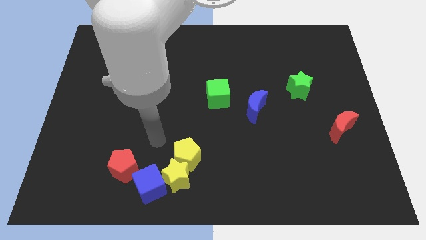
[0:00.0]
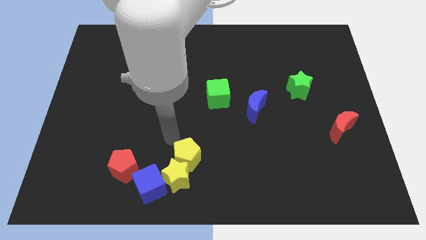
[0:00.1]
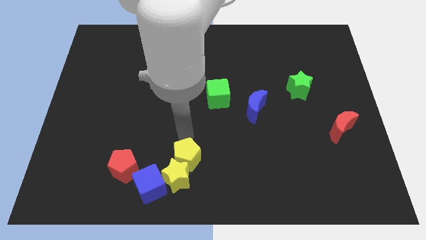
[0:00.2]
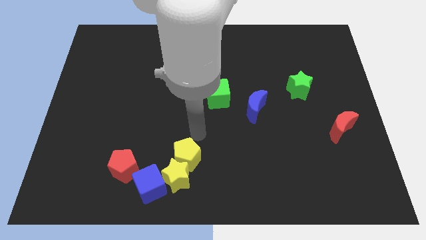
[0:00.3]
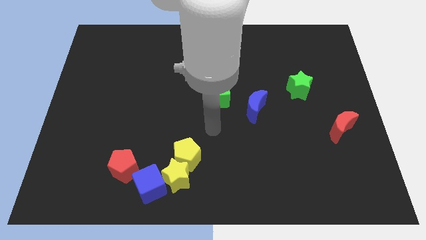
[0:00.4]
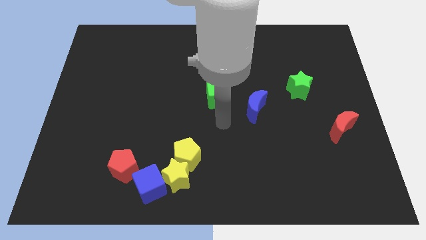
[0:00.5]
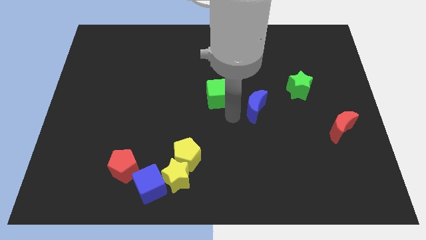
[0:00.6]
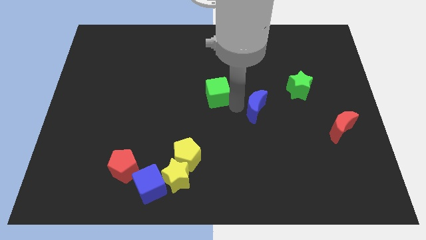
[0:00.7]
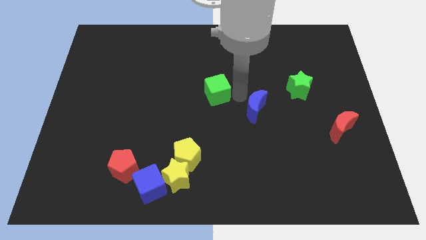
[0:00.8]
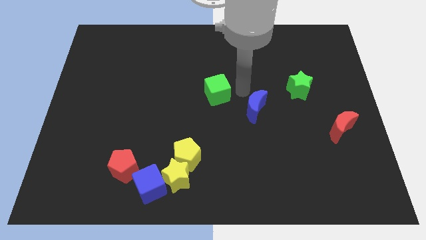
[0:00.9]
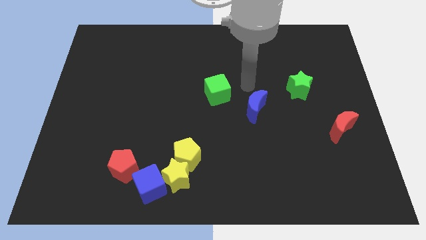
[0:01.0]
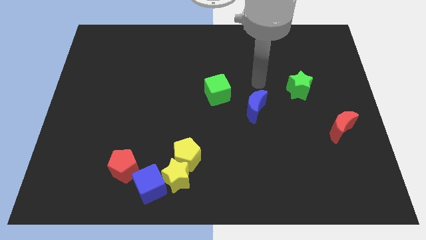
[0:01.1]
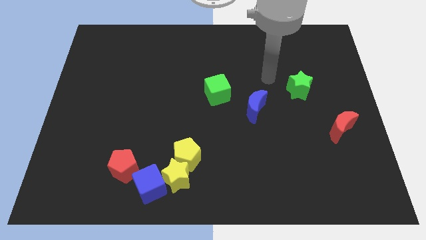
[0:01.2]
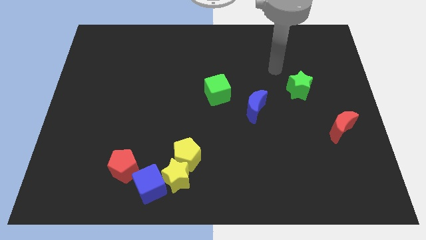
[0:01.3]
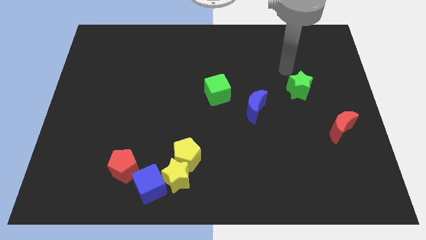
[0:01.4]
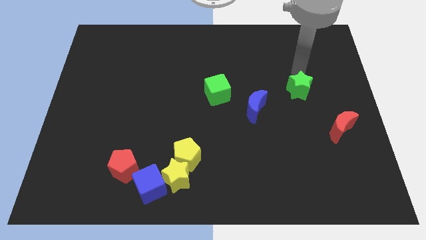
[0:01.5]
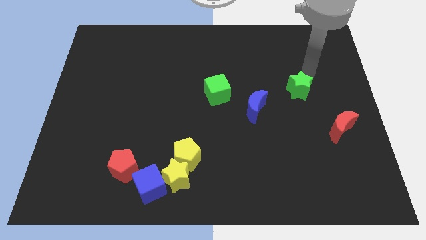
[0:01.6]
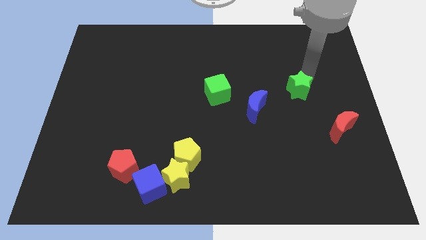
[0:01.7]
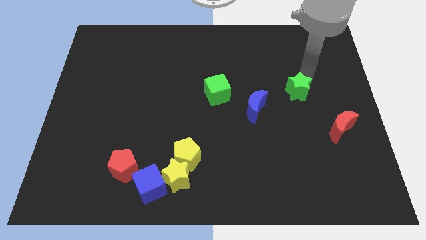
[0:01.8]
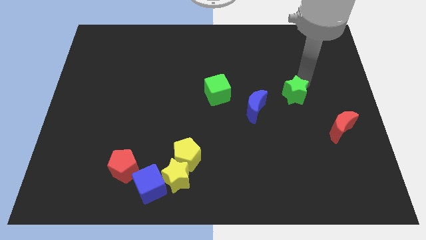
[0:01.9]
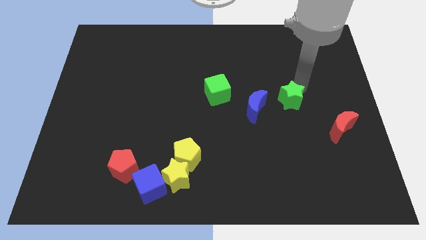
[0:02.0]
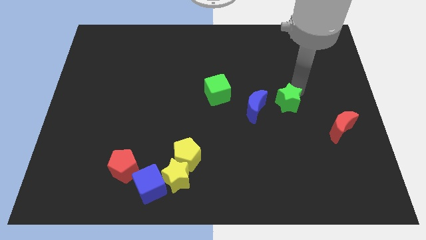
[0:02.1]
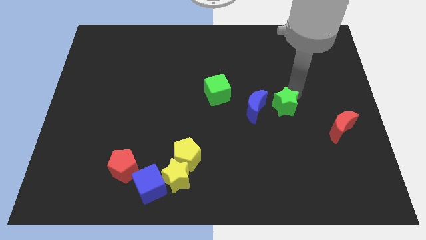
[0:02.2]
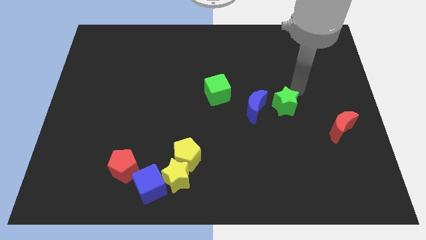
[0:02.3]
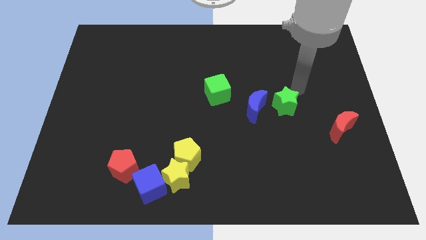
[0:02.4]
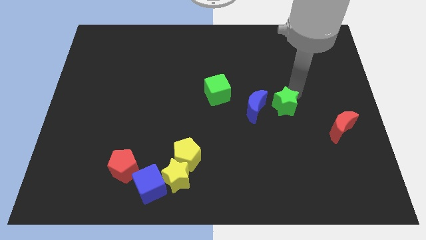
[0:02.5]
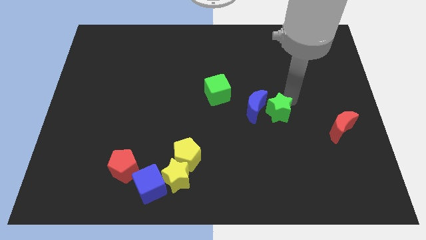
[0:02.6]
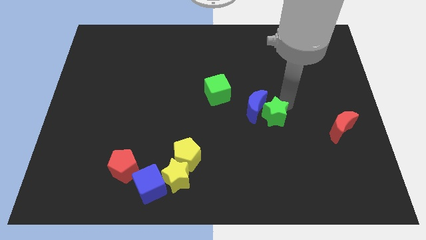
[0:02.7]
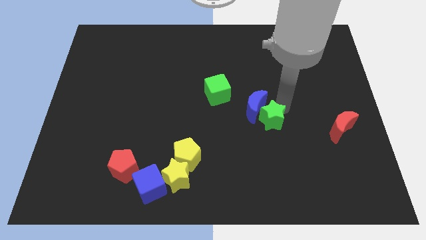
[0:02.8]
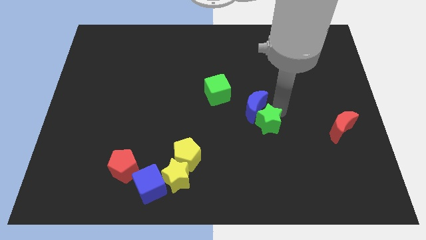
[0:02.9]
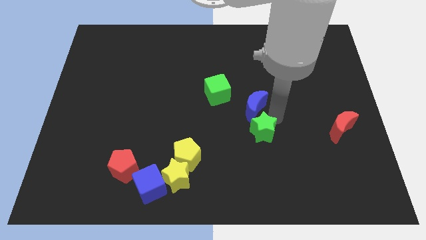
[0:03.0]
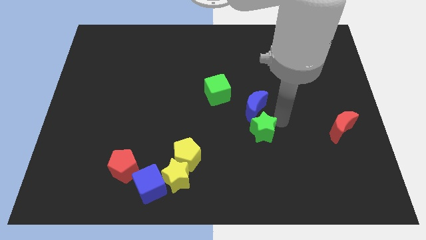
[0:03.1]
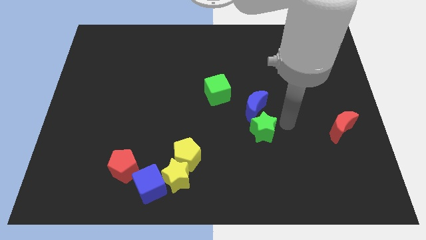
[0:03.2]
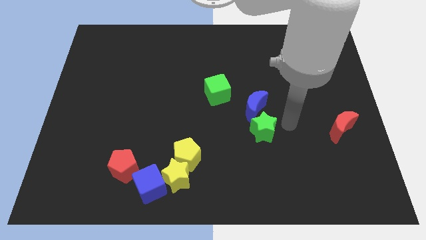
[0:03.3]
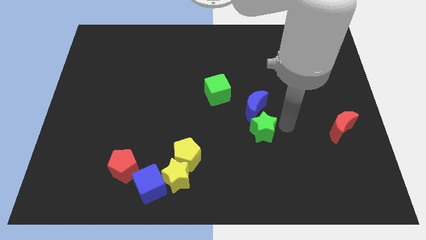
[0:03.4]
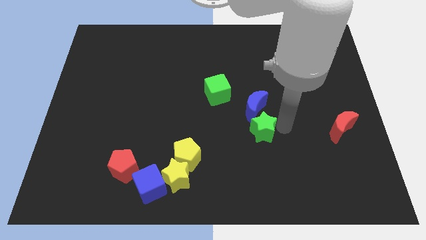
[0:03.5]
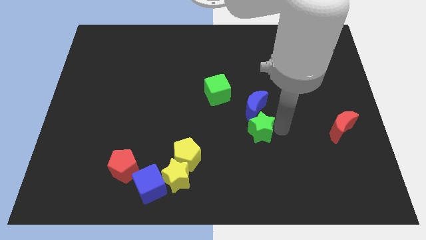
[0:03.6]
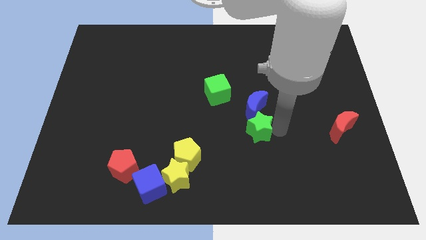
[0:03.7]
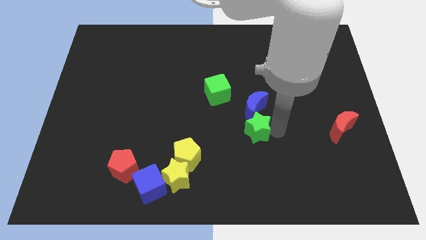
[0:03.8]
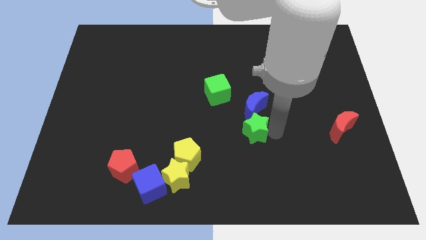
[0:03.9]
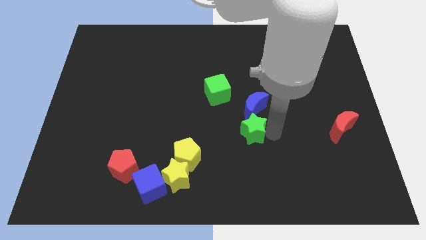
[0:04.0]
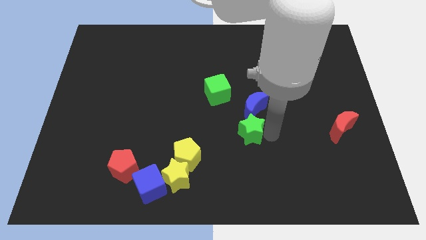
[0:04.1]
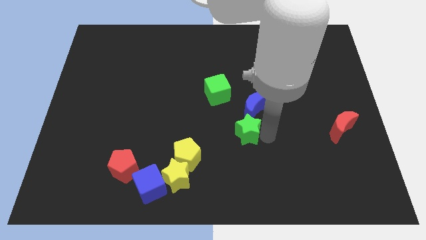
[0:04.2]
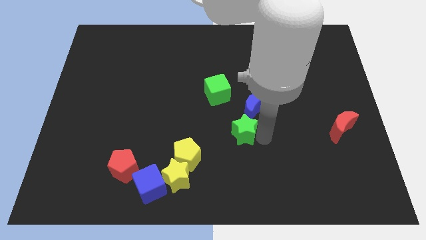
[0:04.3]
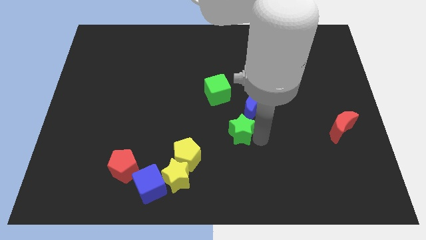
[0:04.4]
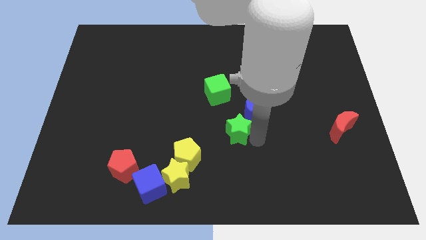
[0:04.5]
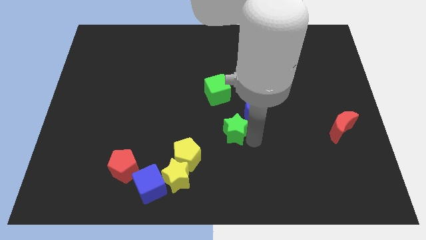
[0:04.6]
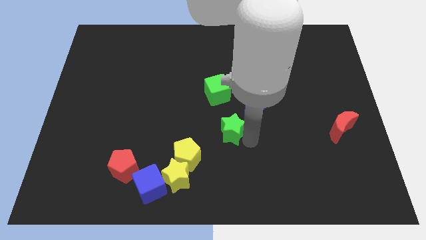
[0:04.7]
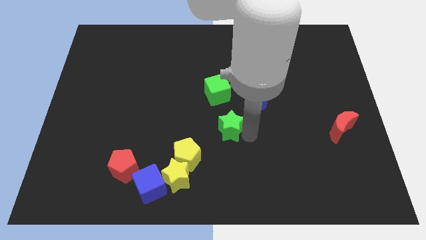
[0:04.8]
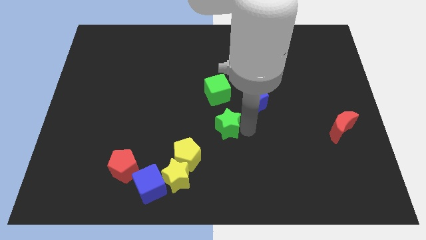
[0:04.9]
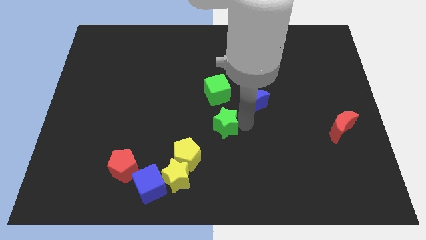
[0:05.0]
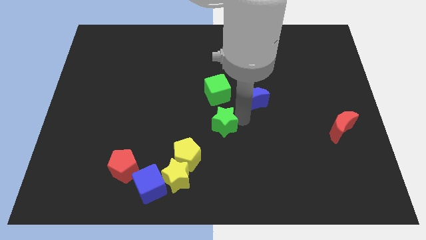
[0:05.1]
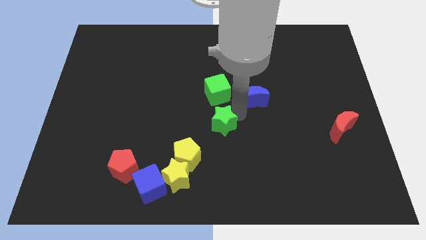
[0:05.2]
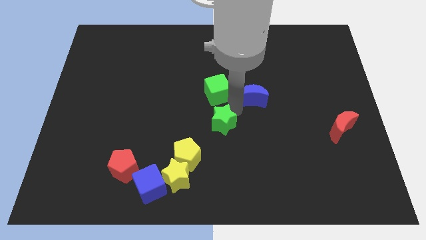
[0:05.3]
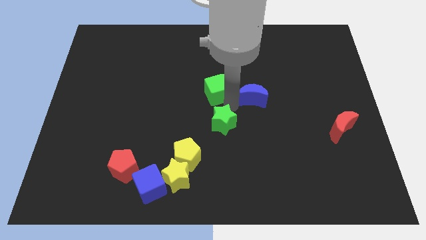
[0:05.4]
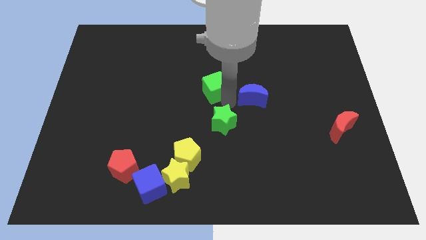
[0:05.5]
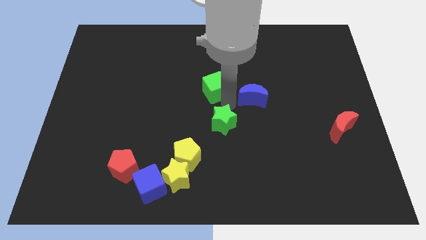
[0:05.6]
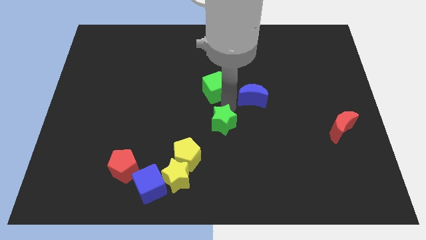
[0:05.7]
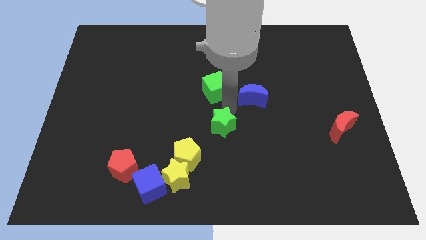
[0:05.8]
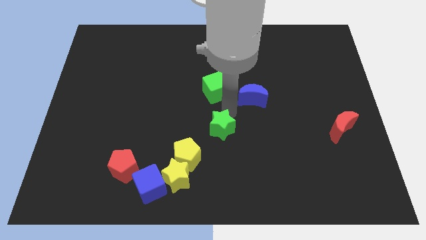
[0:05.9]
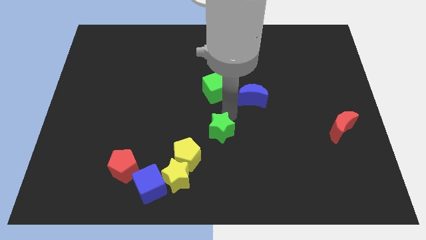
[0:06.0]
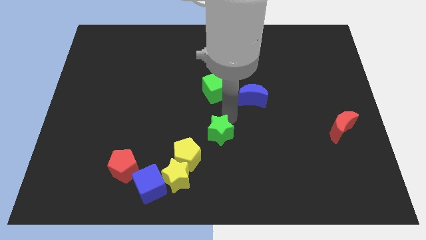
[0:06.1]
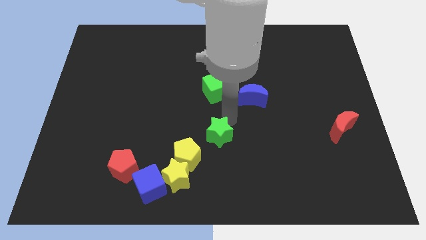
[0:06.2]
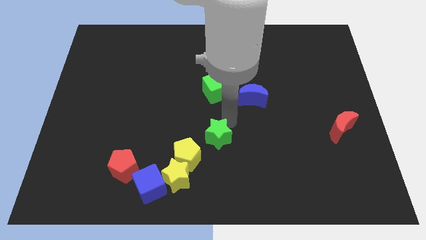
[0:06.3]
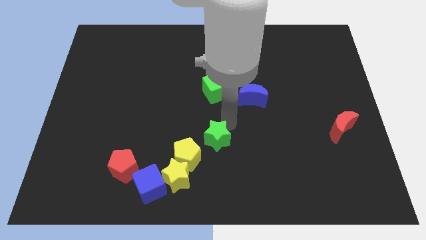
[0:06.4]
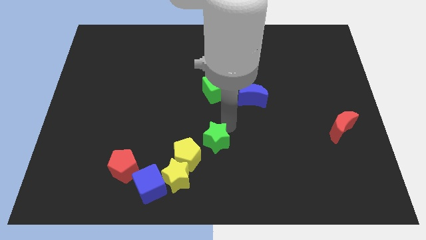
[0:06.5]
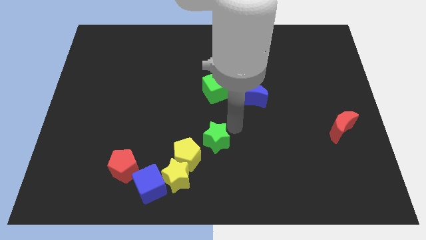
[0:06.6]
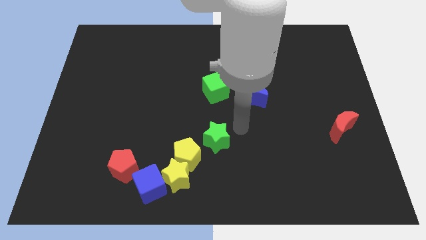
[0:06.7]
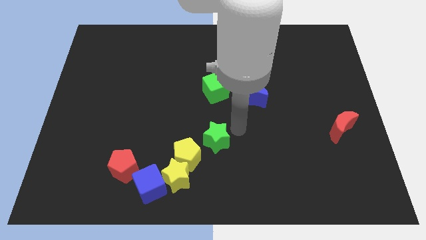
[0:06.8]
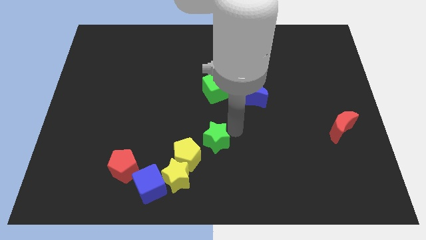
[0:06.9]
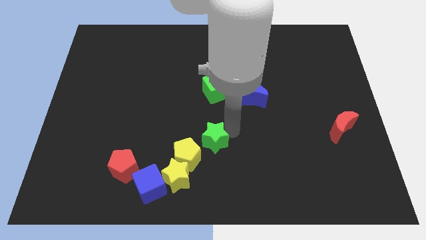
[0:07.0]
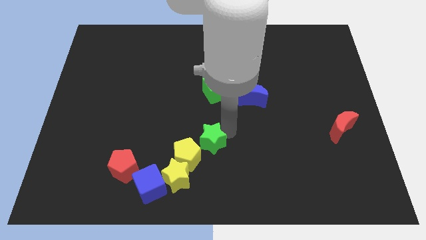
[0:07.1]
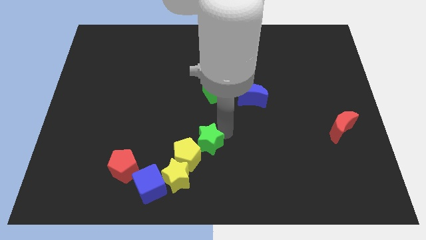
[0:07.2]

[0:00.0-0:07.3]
slide the green star next to the yellow pentagon
